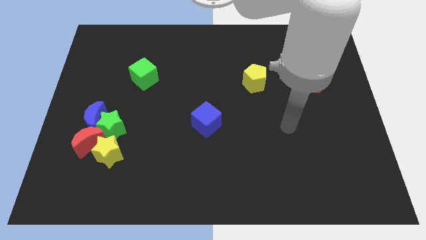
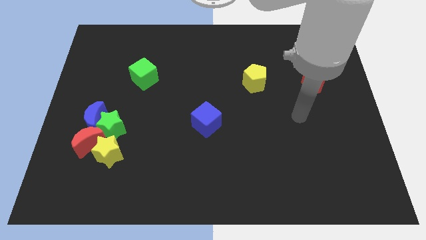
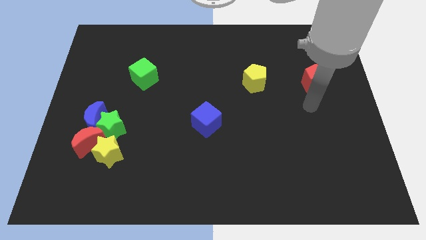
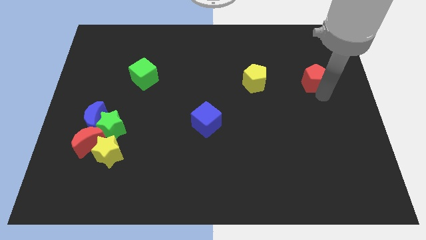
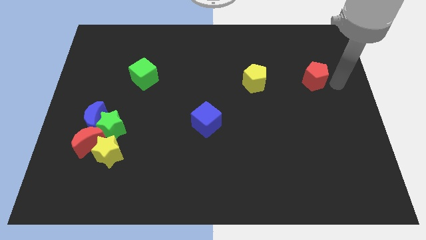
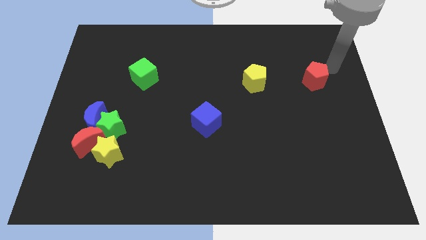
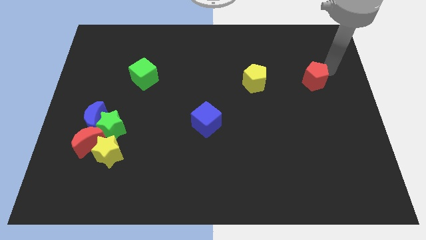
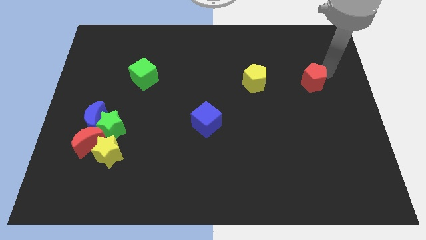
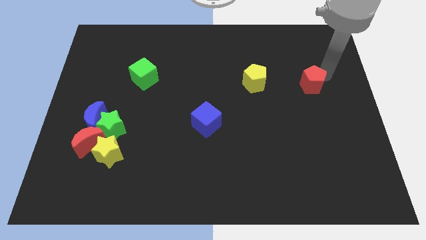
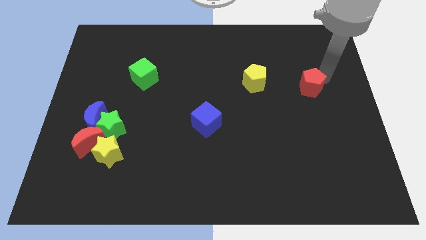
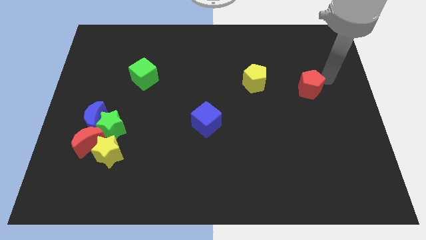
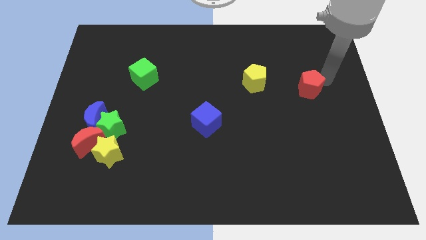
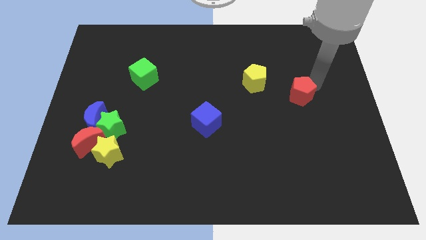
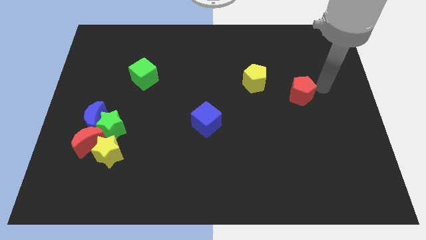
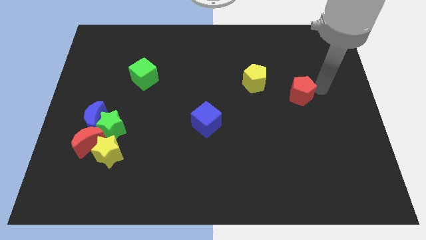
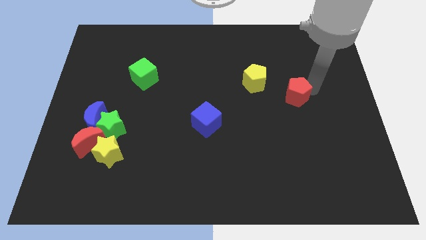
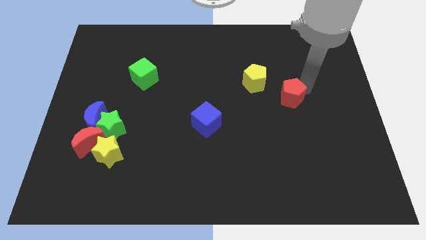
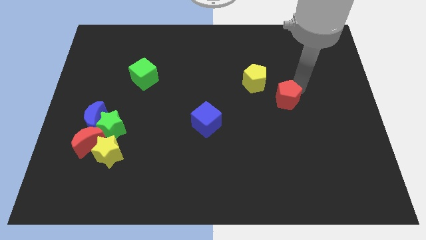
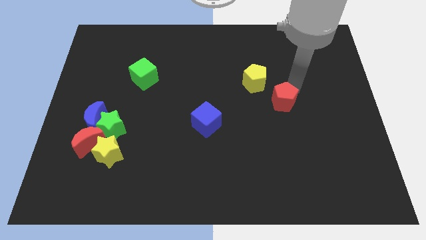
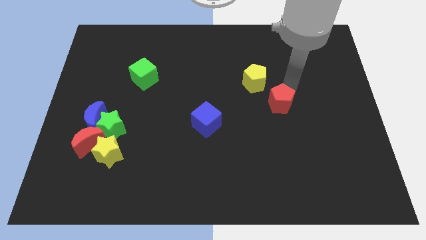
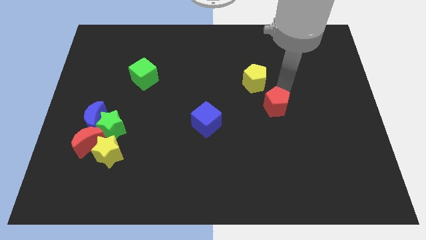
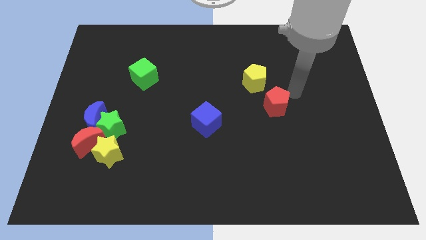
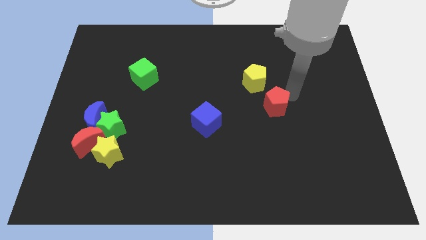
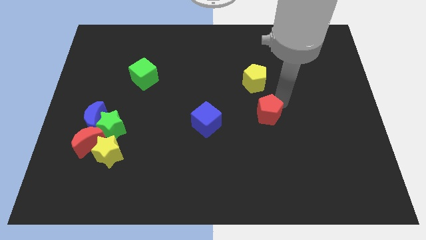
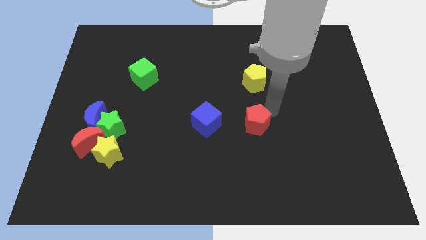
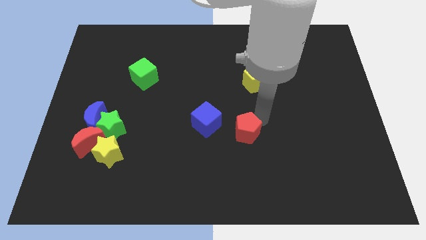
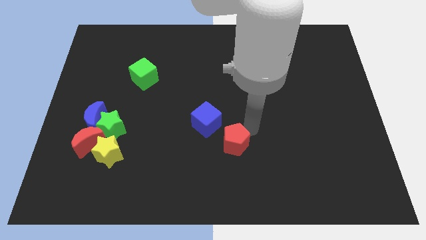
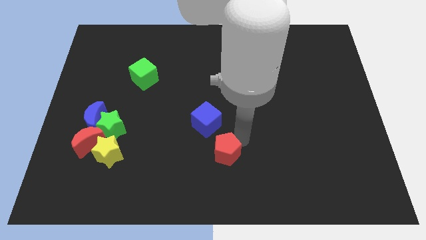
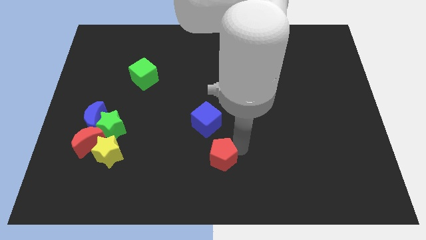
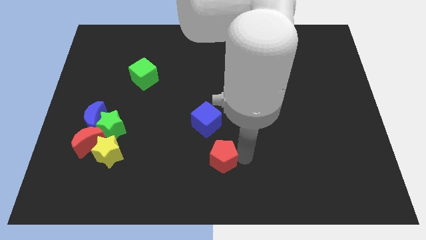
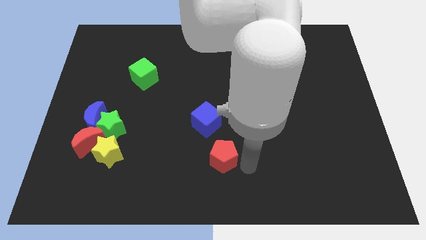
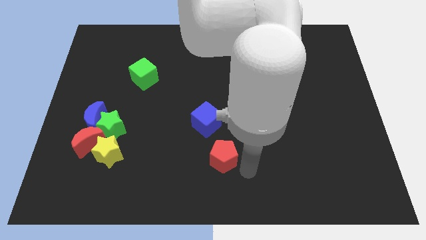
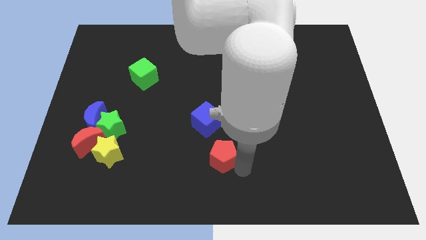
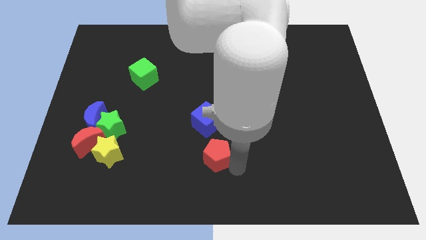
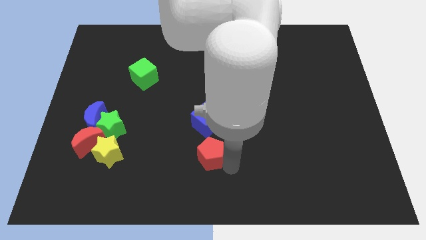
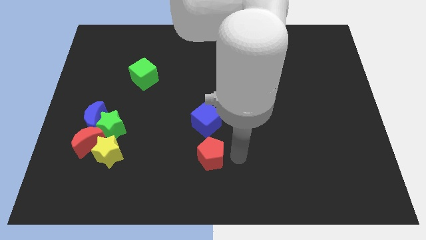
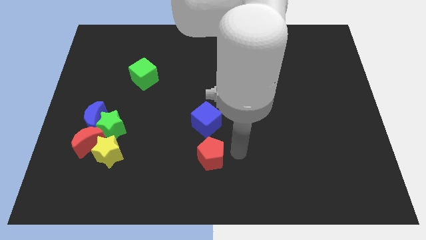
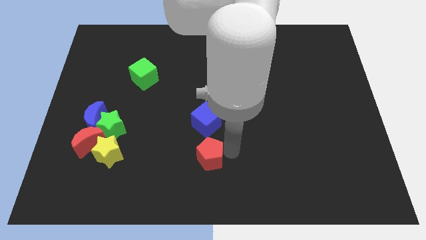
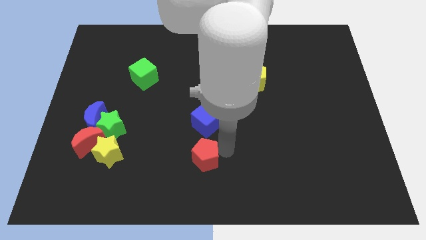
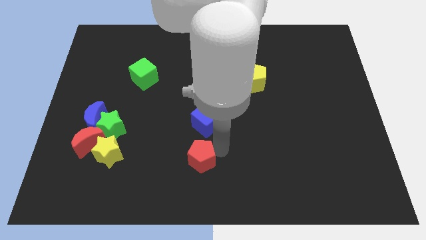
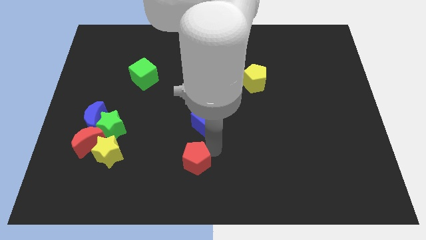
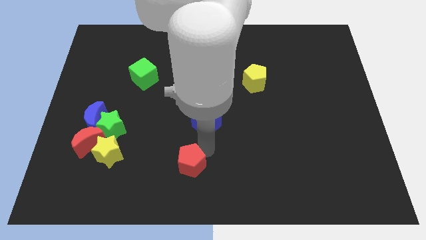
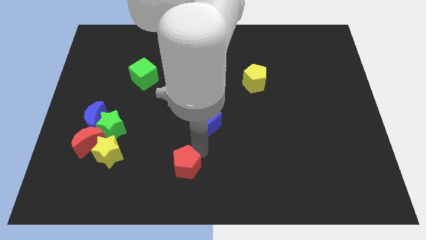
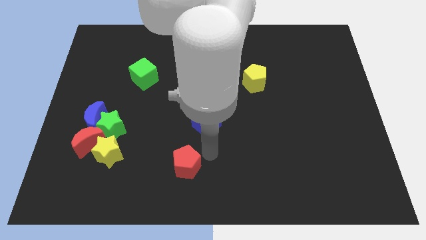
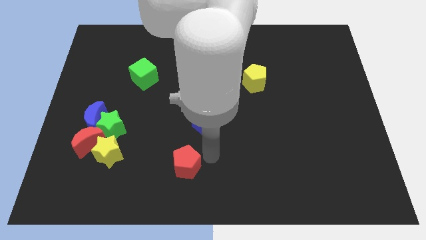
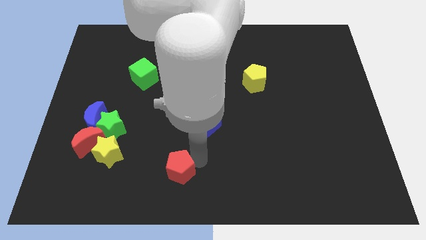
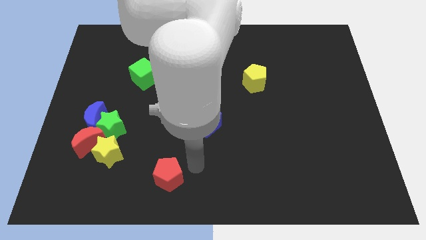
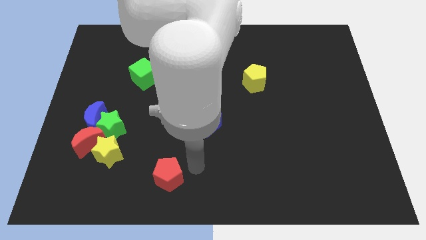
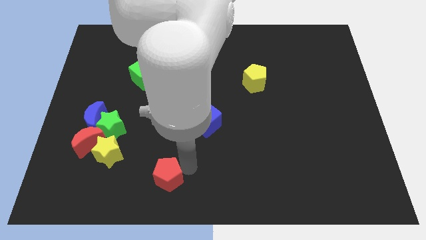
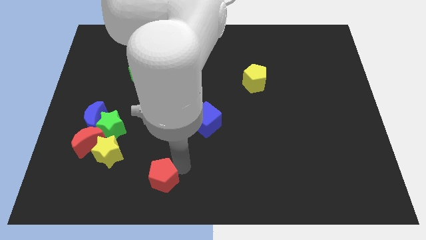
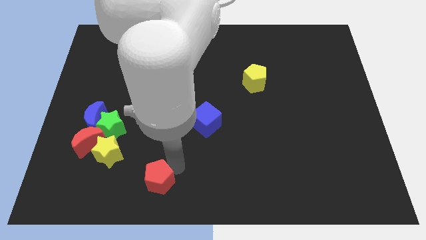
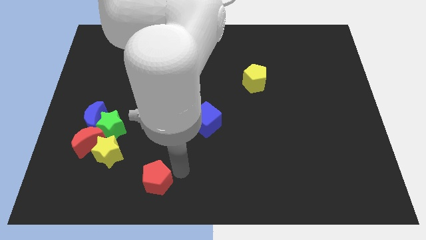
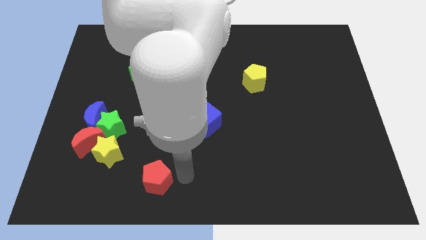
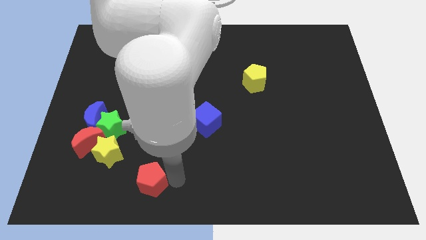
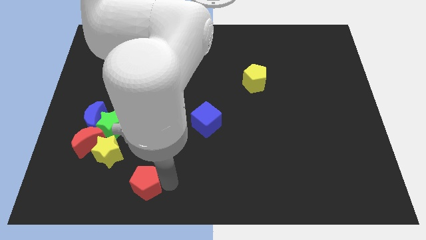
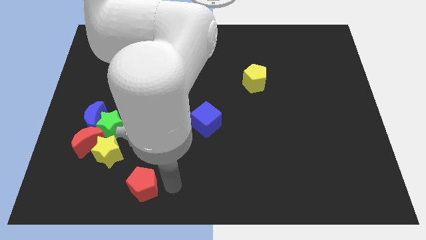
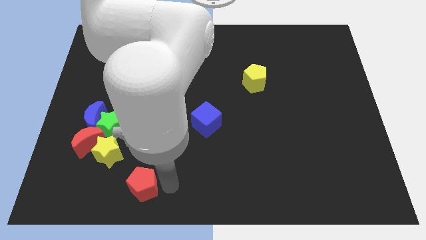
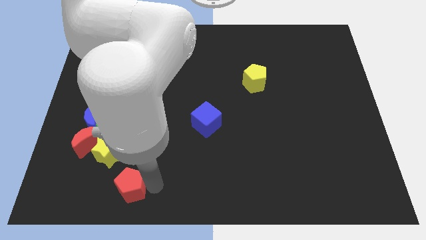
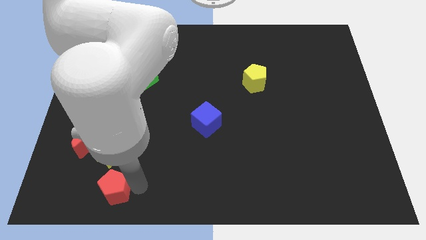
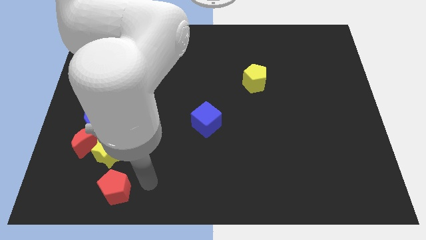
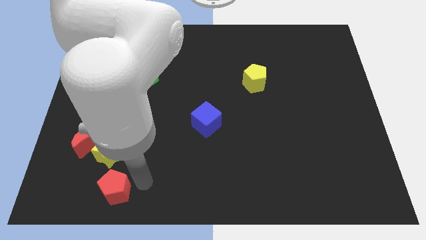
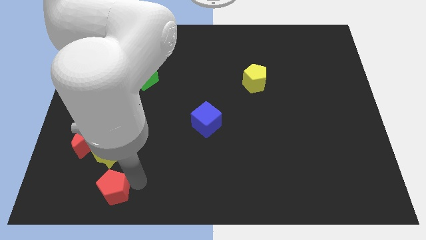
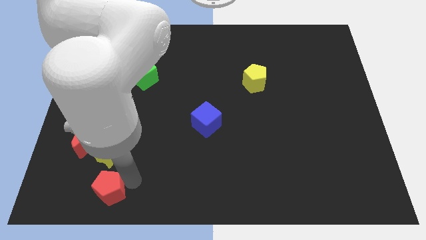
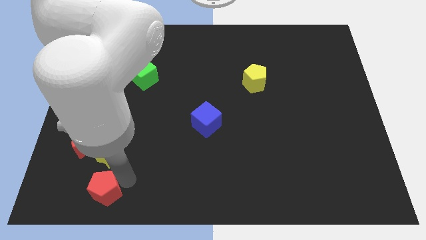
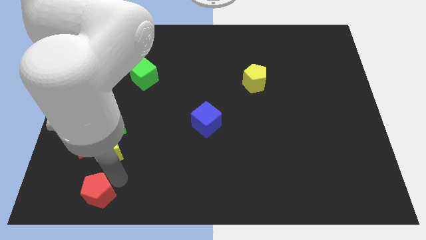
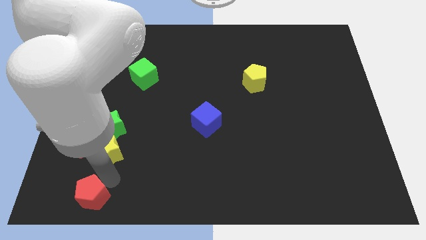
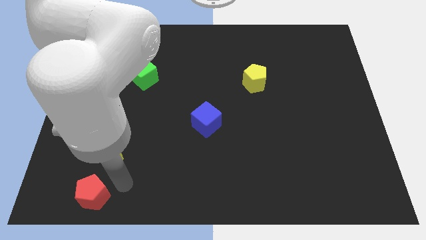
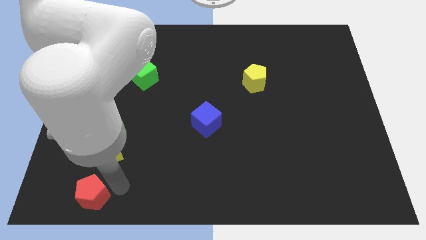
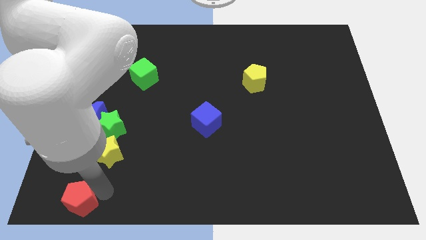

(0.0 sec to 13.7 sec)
put the red pentagon to the lower left corner

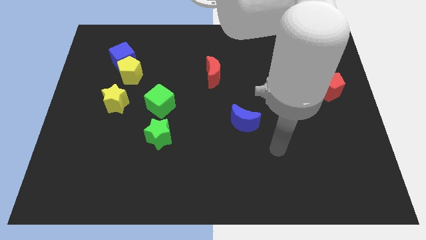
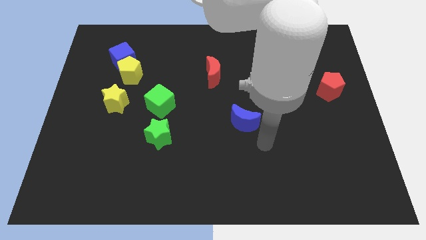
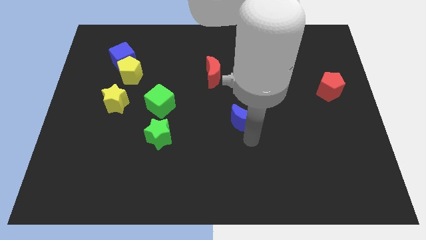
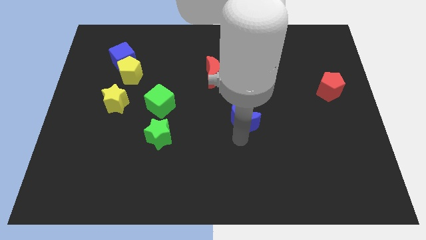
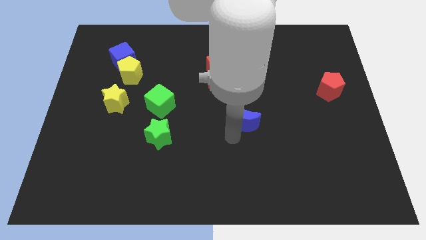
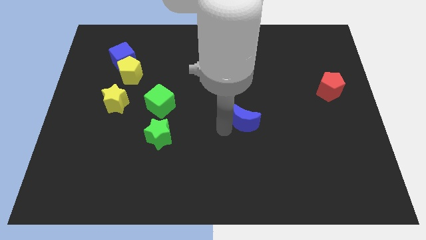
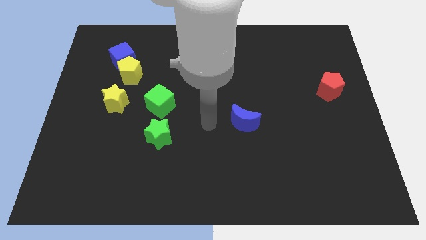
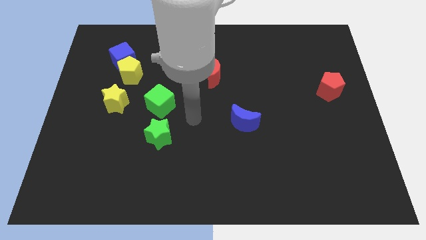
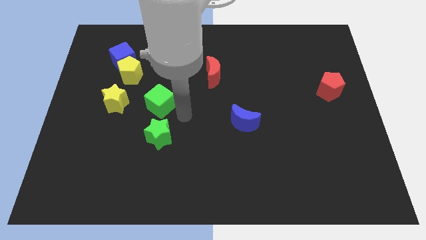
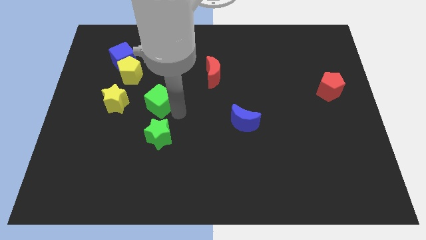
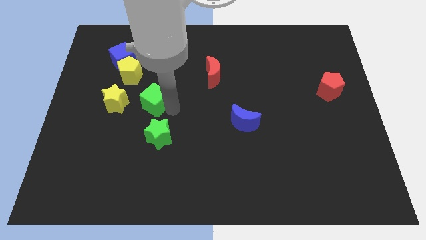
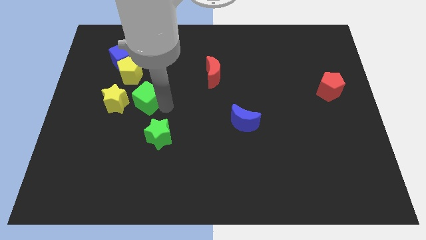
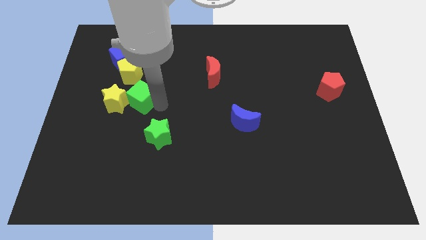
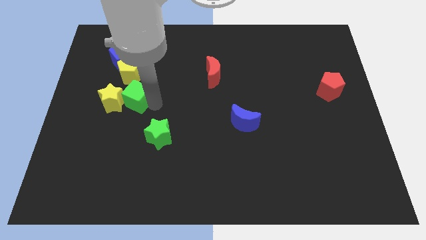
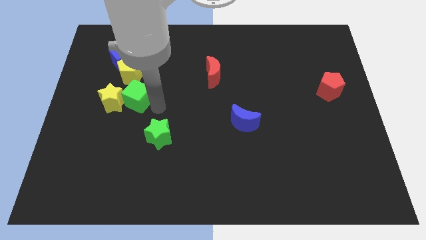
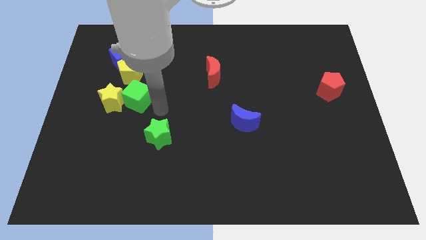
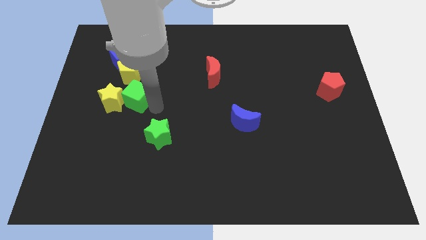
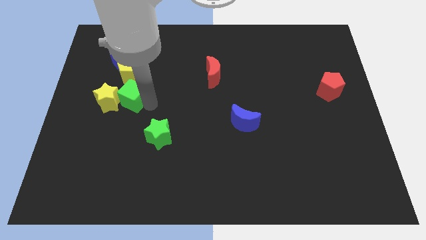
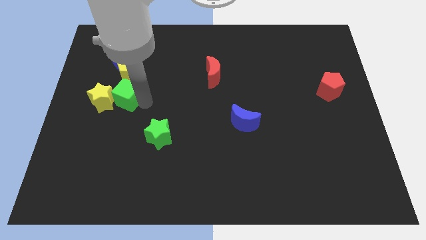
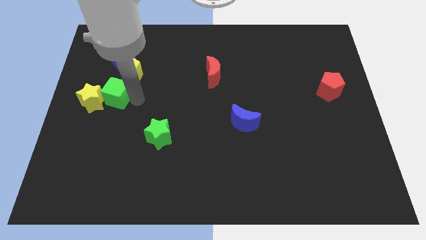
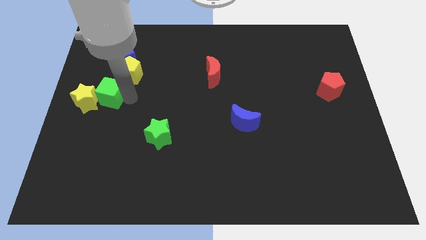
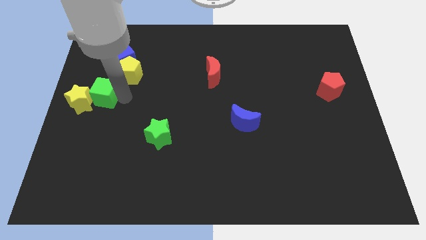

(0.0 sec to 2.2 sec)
push the green cube to the center left
